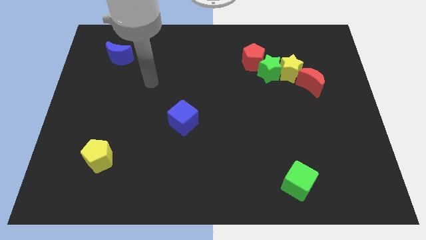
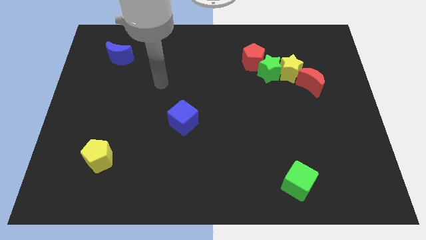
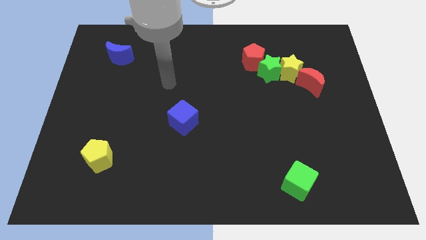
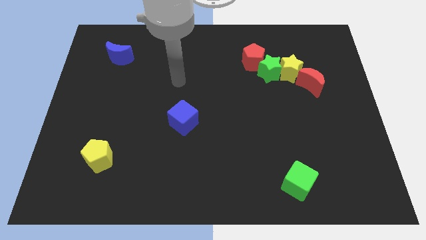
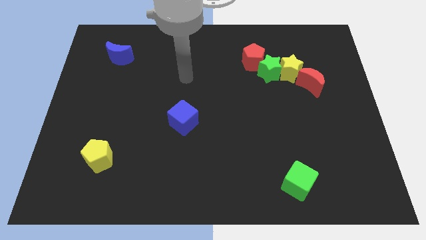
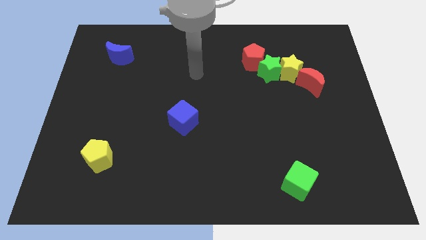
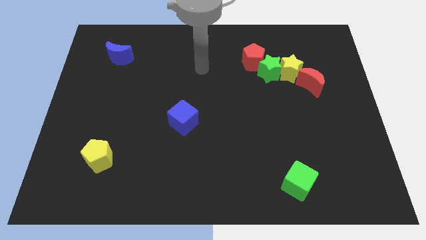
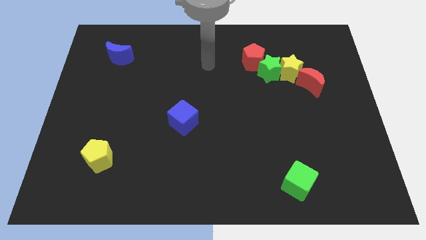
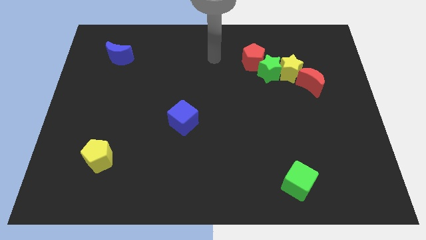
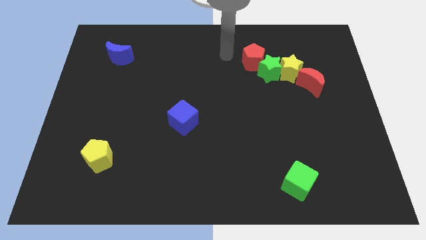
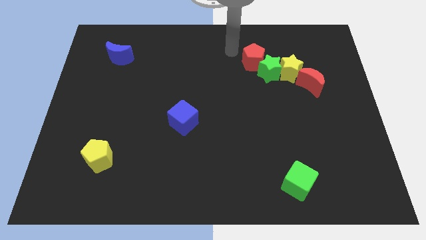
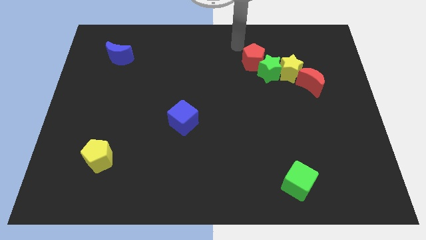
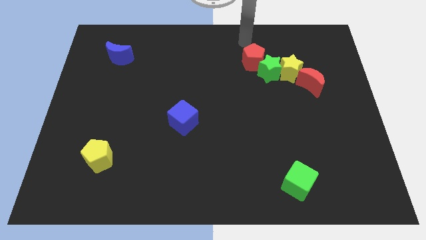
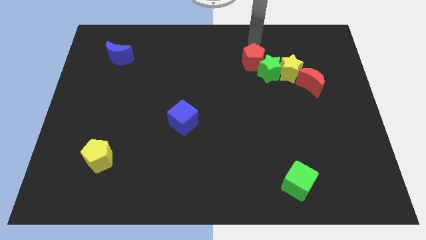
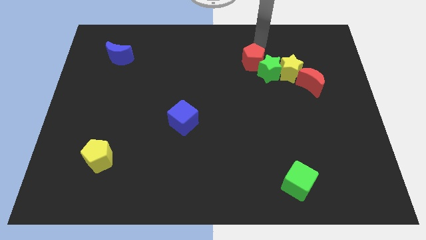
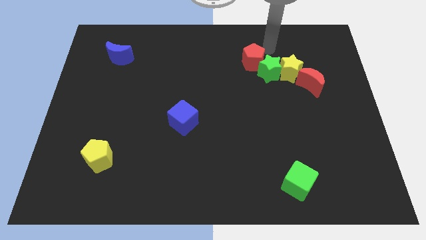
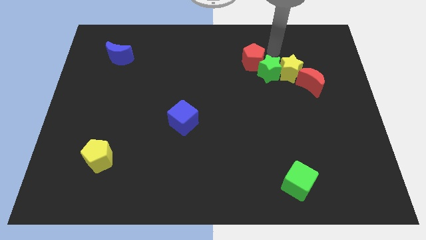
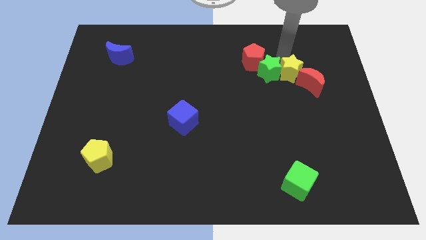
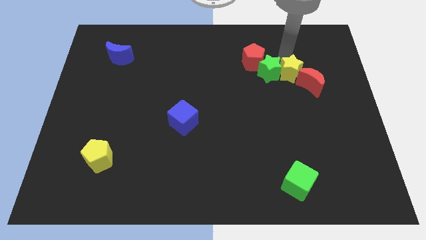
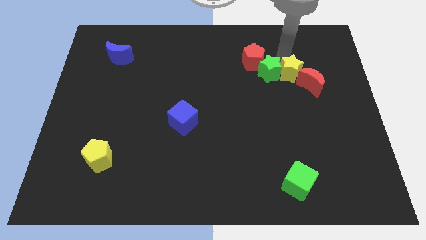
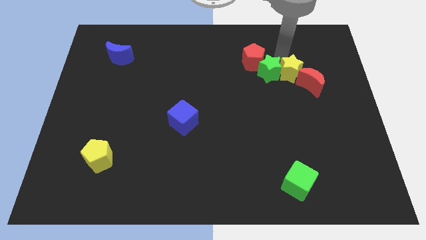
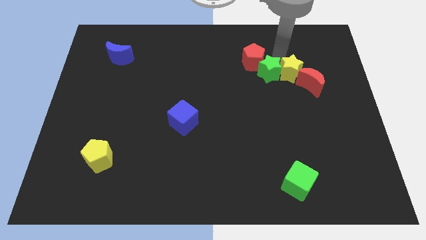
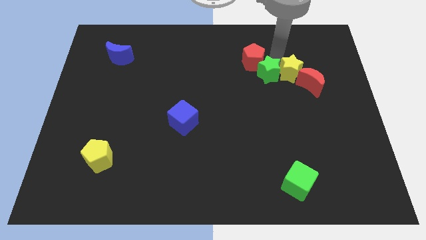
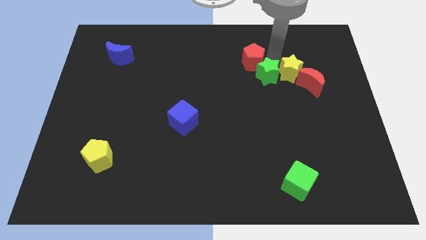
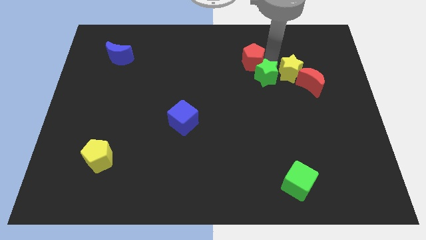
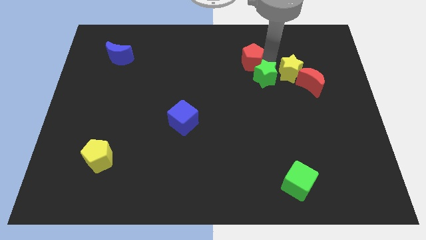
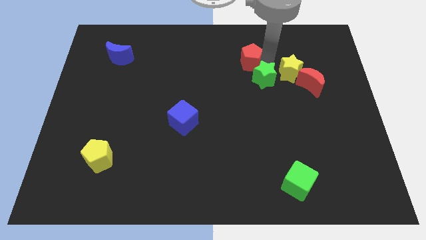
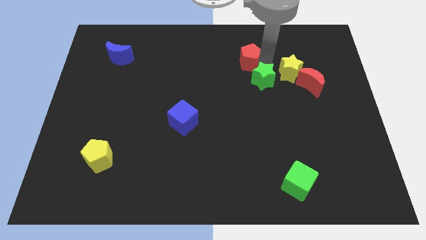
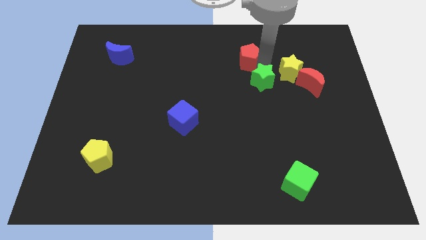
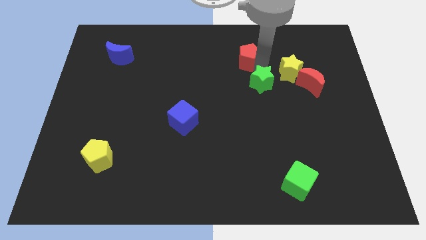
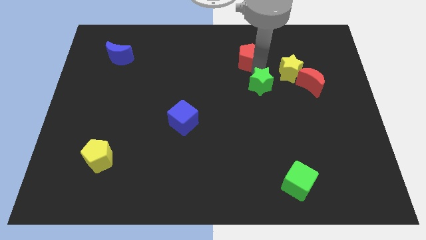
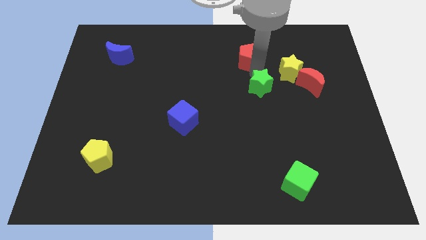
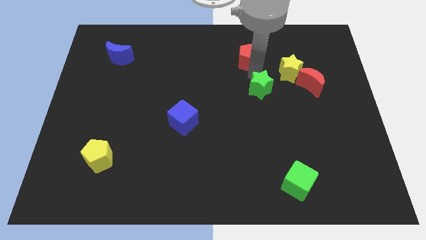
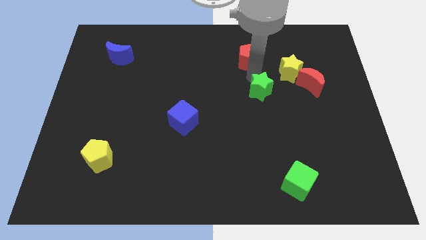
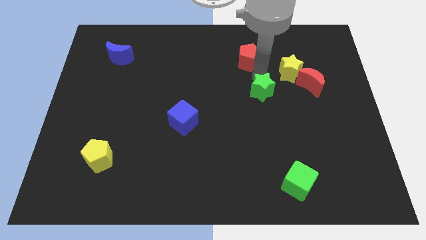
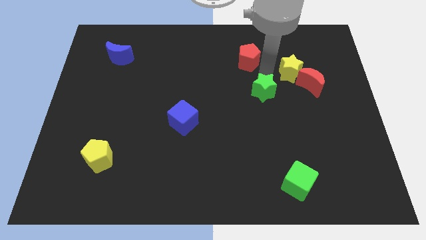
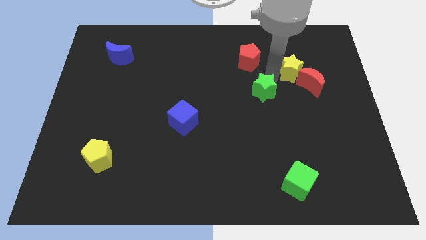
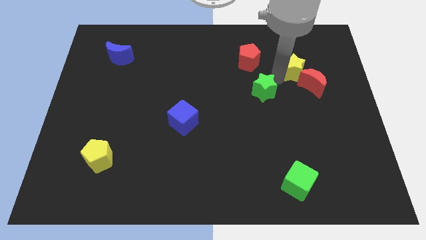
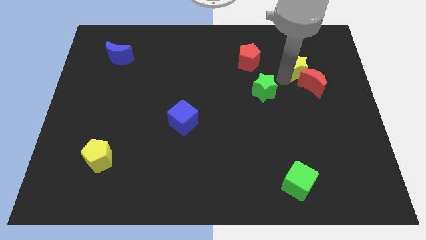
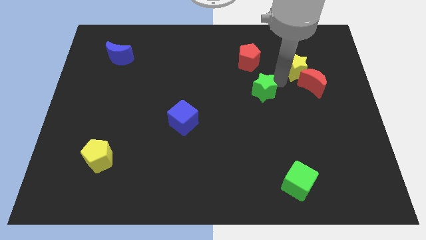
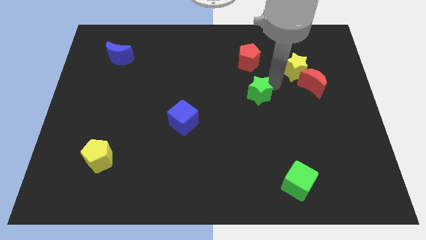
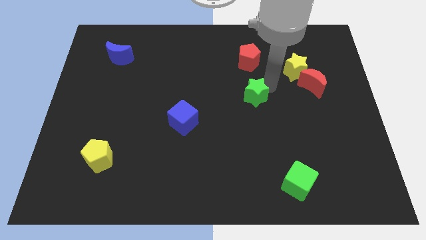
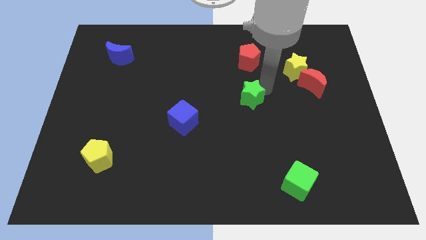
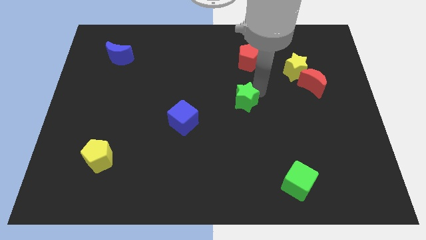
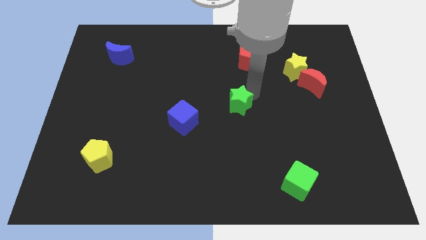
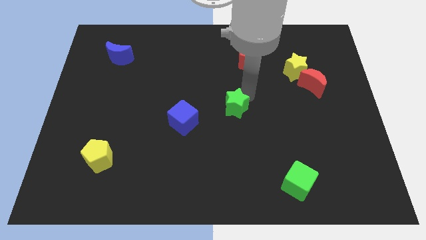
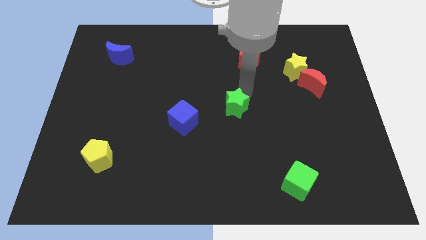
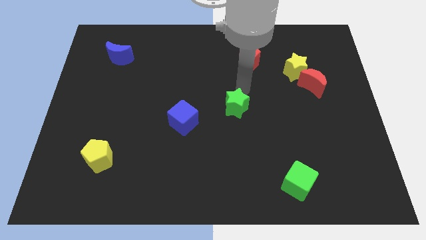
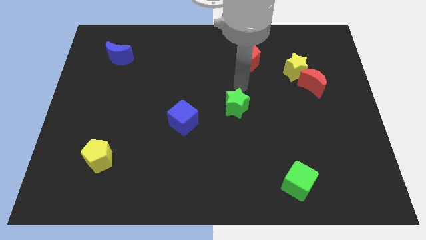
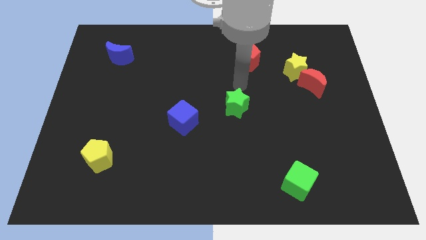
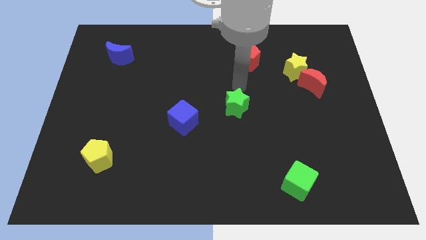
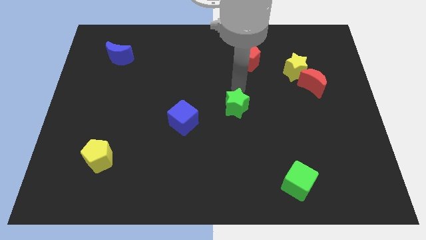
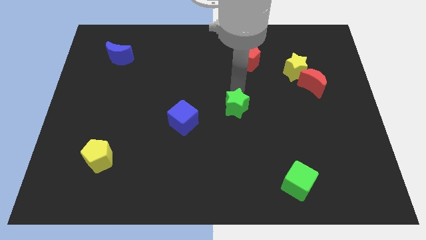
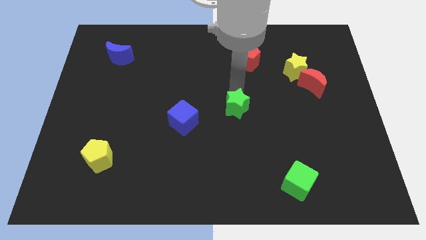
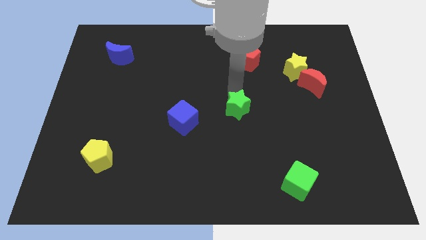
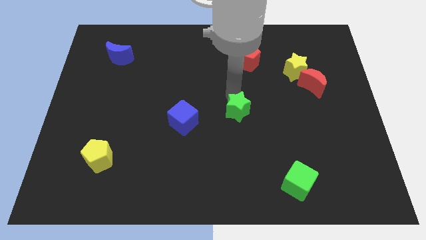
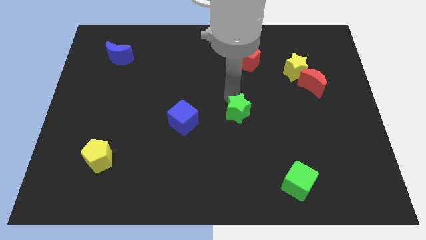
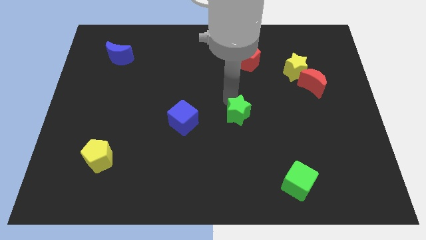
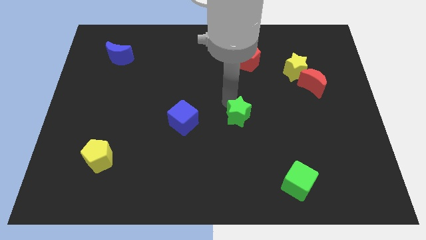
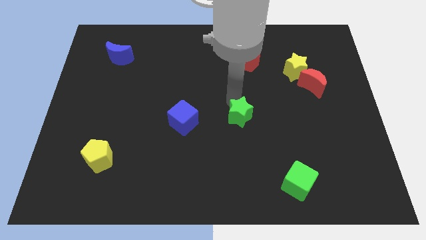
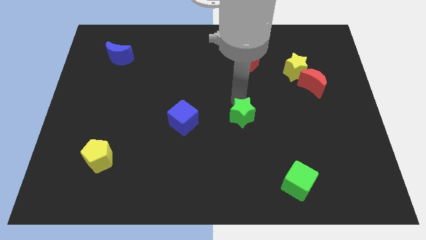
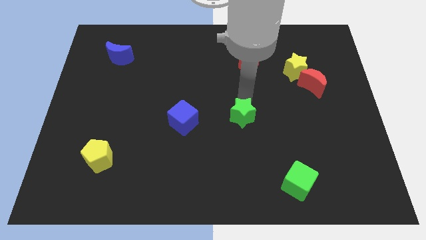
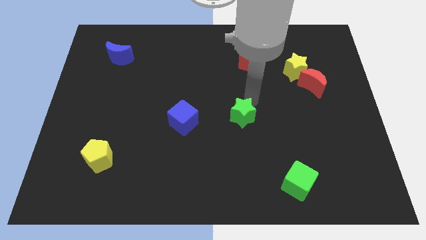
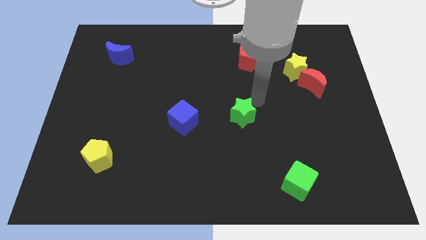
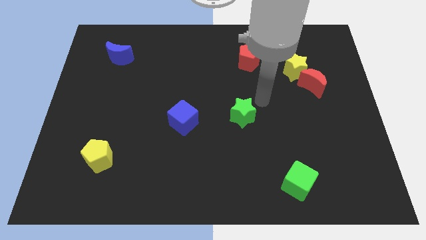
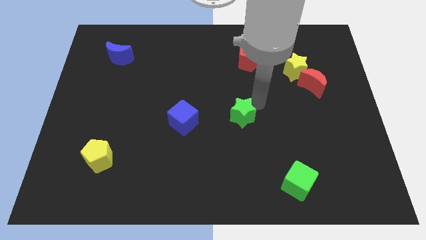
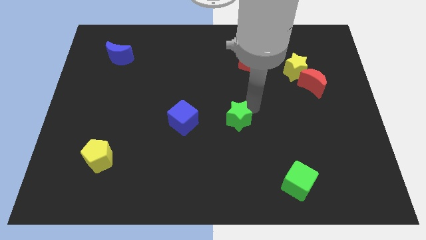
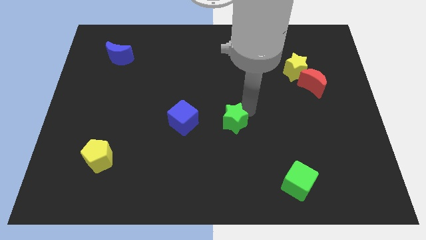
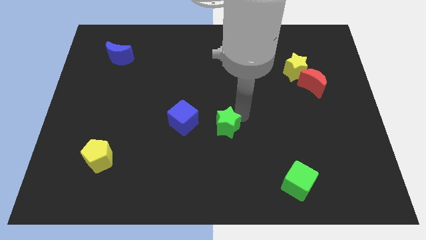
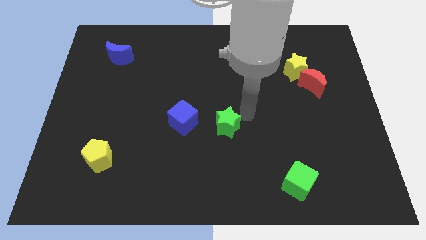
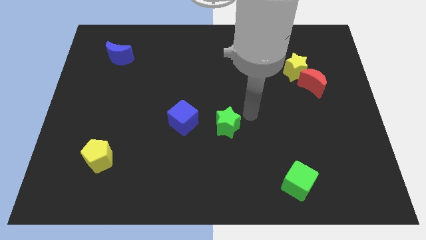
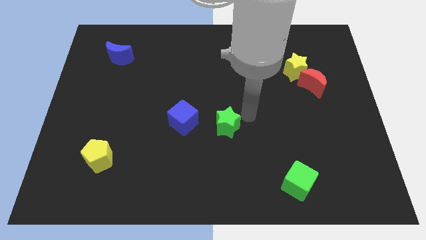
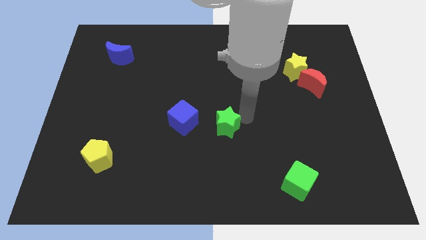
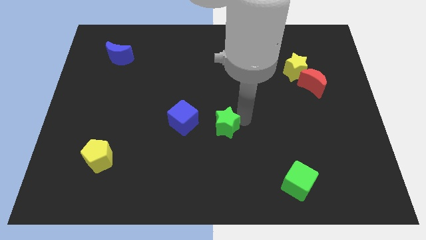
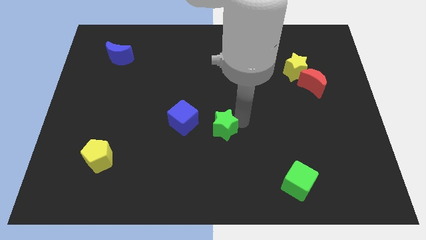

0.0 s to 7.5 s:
push the green star diagonally downwards and to the left

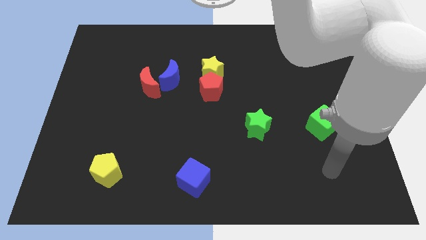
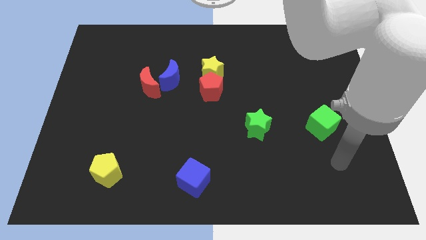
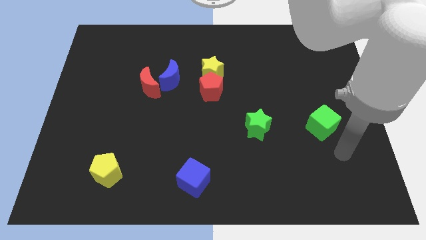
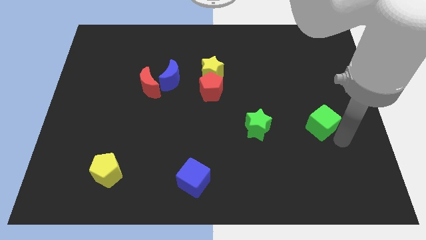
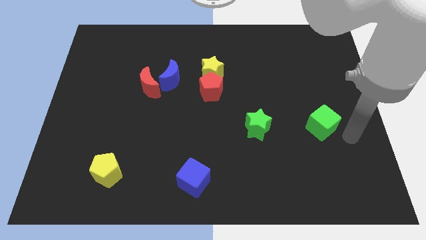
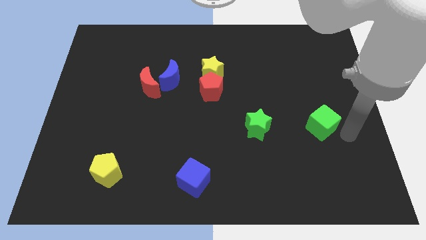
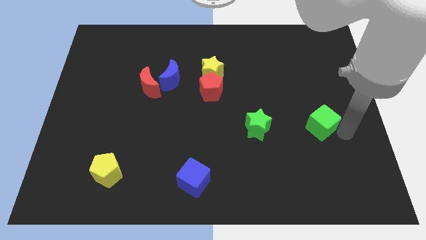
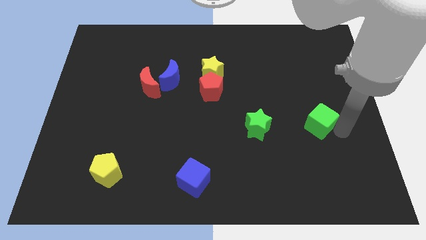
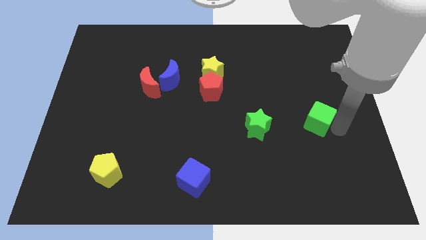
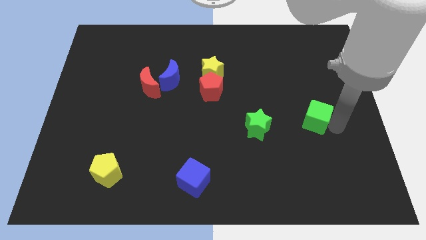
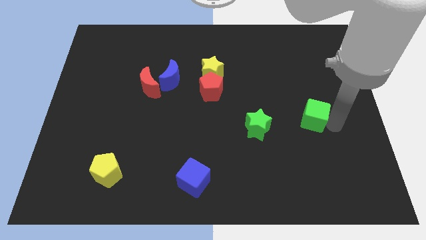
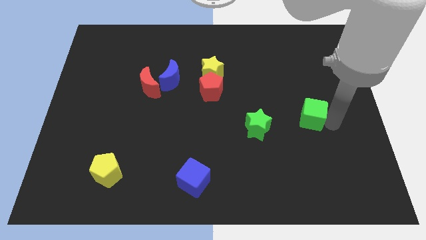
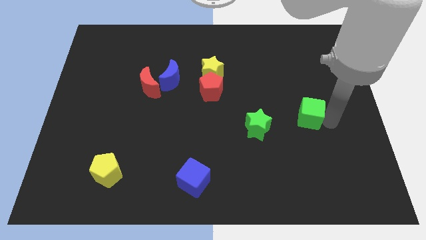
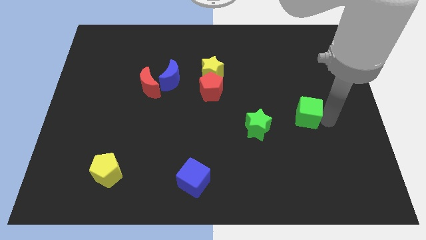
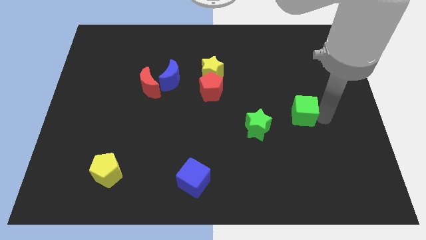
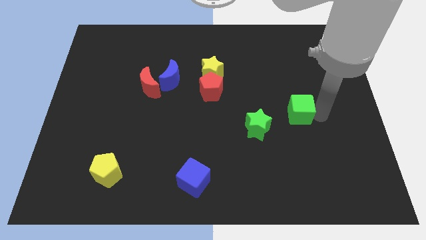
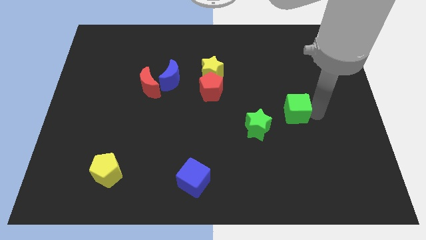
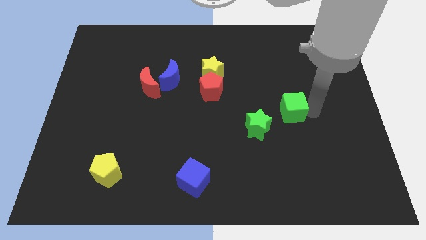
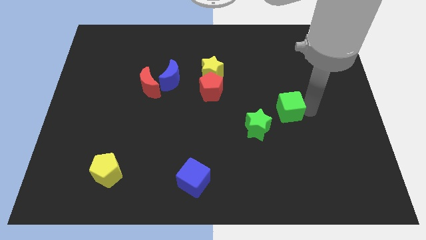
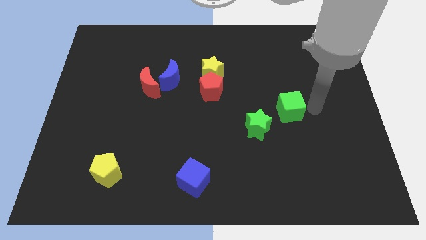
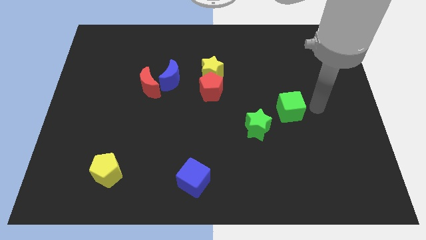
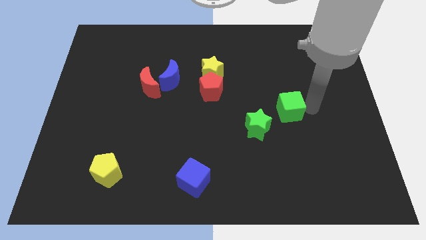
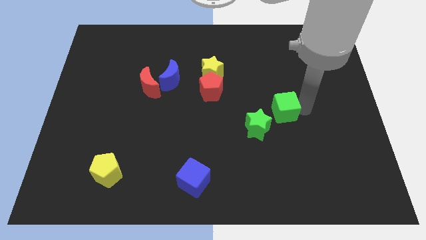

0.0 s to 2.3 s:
slightly push the green cube to the left
